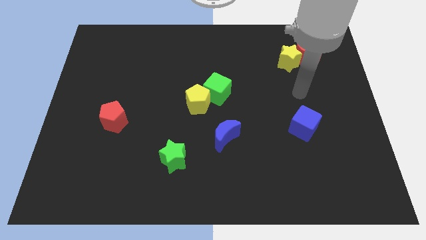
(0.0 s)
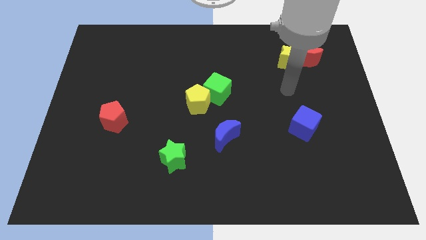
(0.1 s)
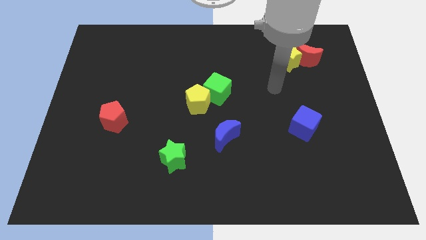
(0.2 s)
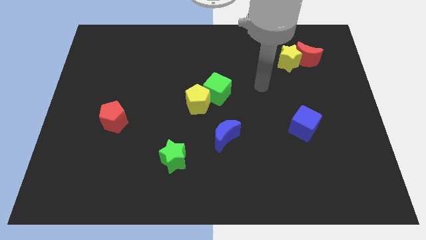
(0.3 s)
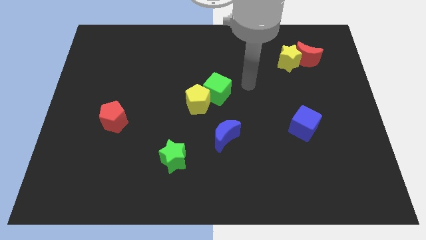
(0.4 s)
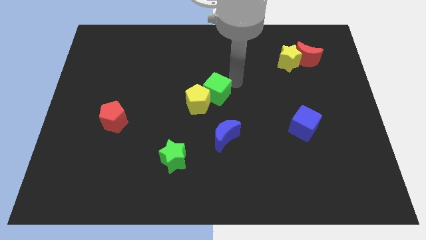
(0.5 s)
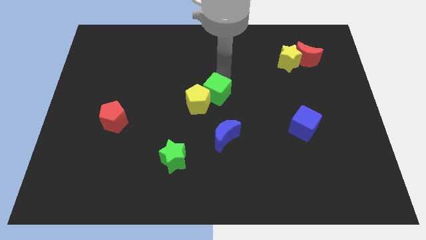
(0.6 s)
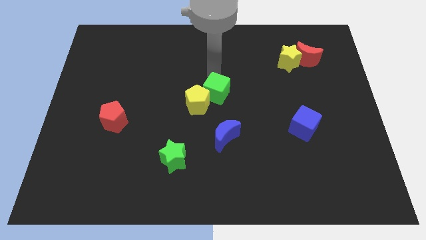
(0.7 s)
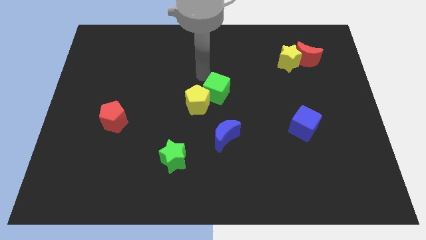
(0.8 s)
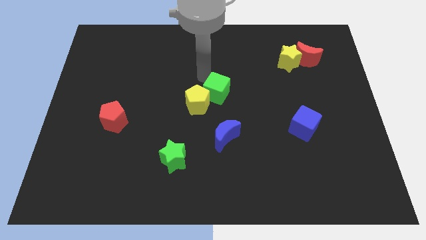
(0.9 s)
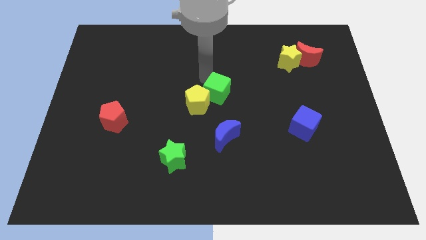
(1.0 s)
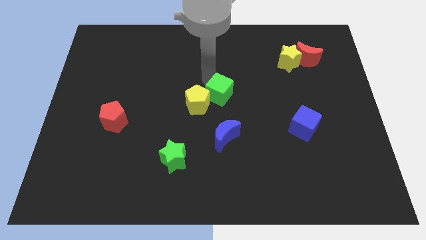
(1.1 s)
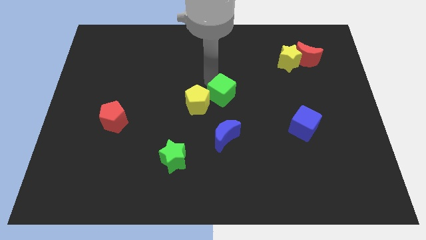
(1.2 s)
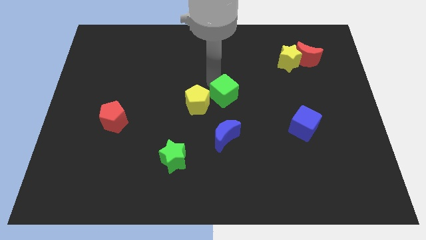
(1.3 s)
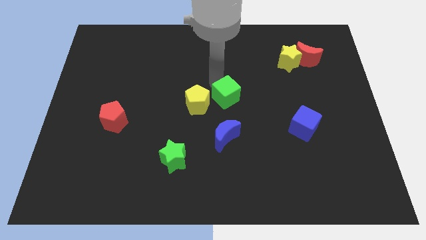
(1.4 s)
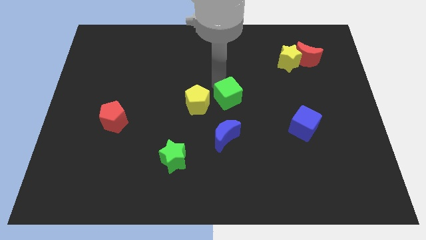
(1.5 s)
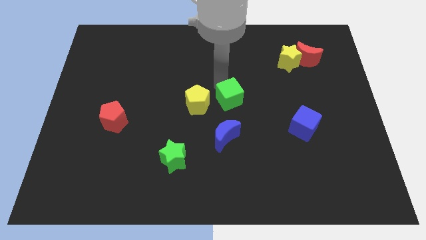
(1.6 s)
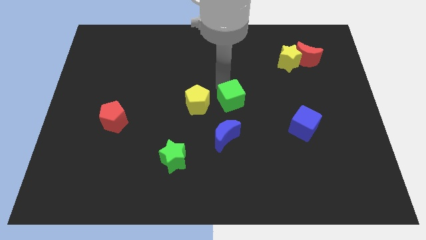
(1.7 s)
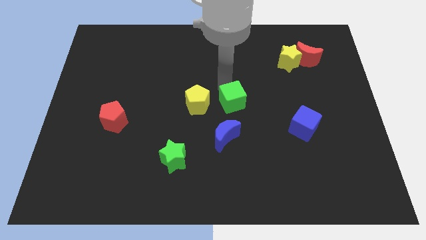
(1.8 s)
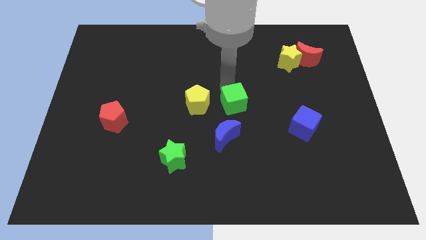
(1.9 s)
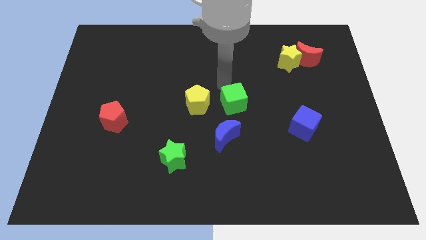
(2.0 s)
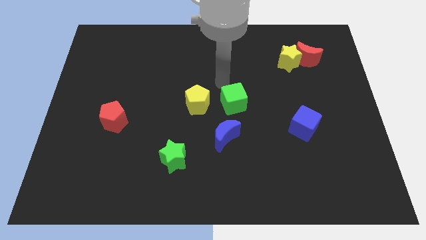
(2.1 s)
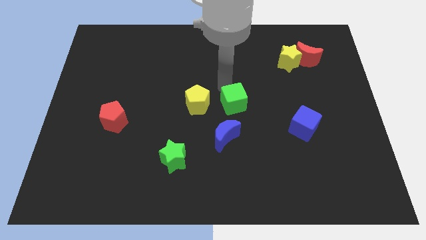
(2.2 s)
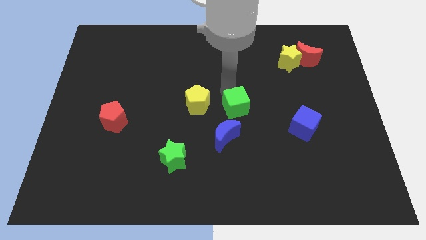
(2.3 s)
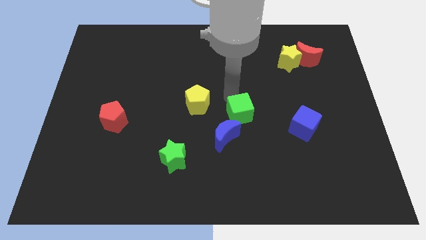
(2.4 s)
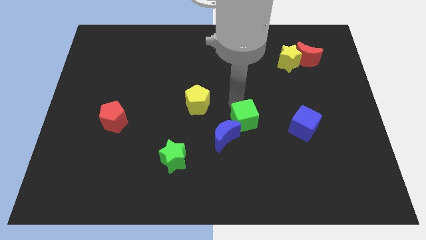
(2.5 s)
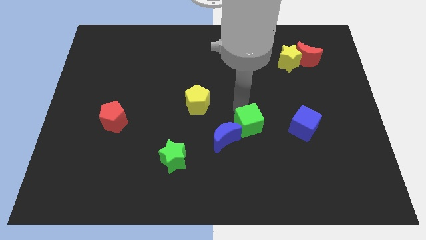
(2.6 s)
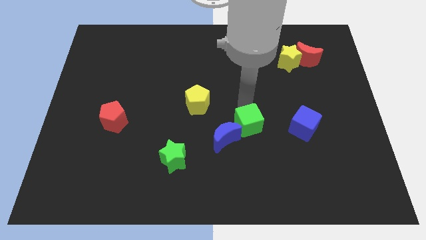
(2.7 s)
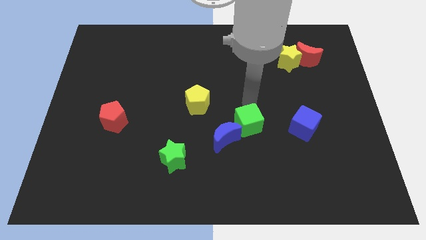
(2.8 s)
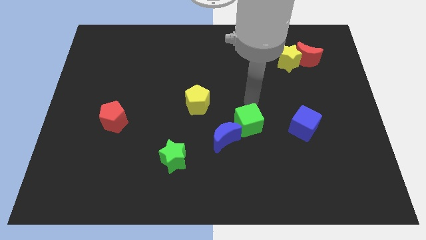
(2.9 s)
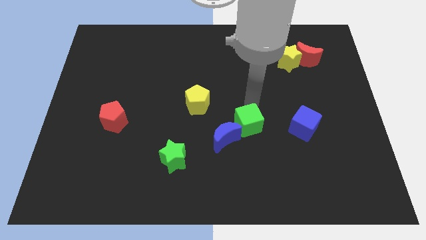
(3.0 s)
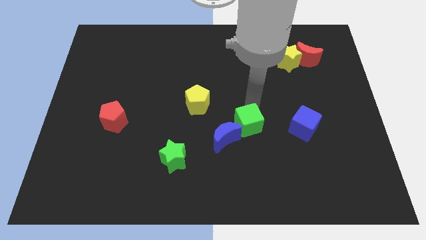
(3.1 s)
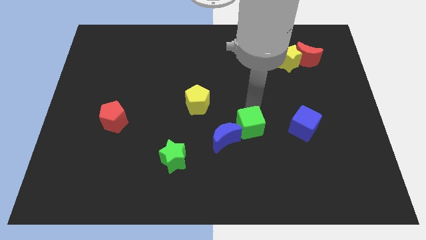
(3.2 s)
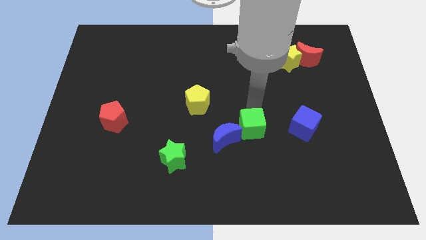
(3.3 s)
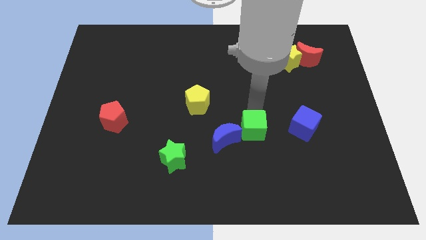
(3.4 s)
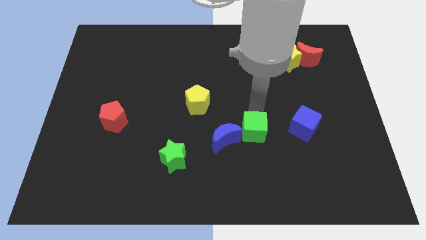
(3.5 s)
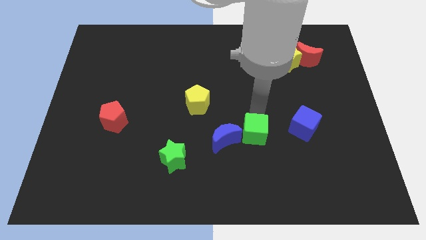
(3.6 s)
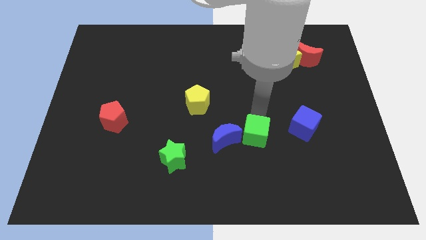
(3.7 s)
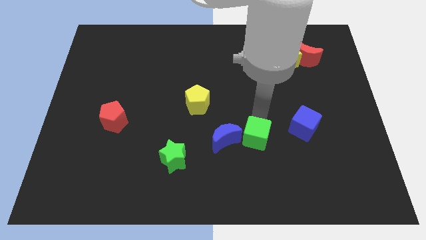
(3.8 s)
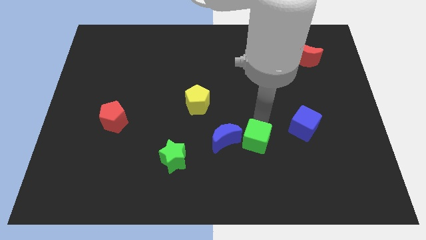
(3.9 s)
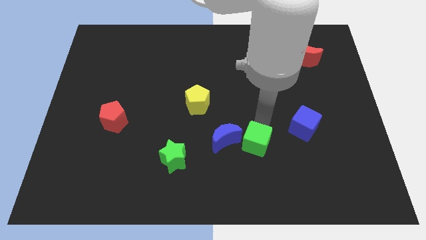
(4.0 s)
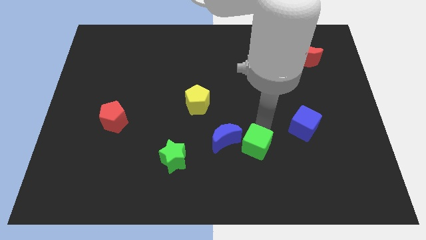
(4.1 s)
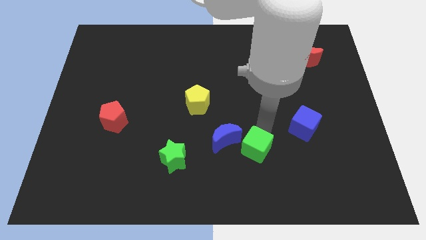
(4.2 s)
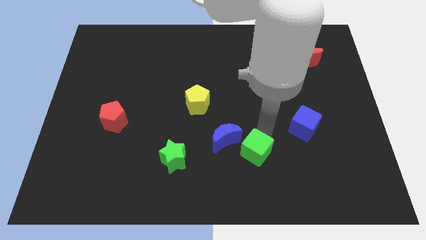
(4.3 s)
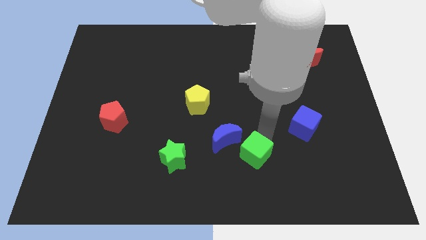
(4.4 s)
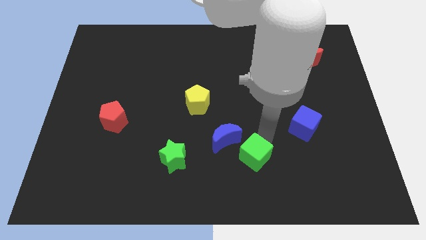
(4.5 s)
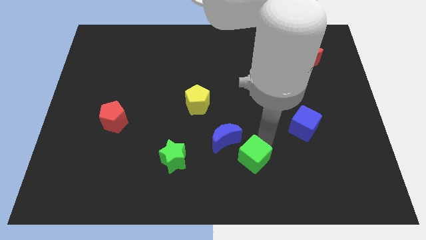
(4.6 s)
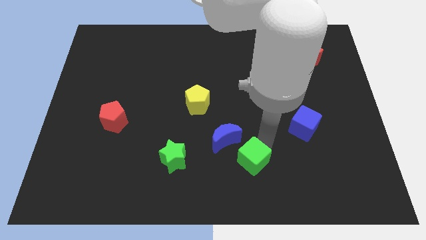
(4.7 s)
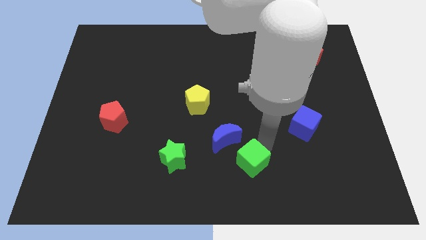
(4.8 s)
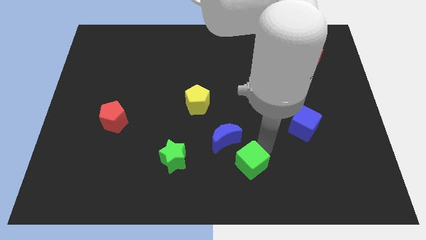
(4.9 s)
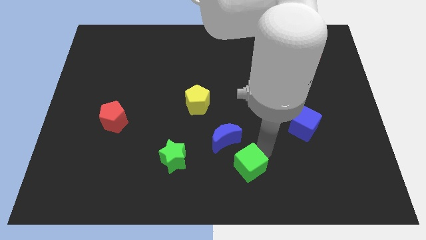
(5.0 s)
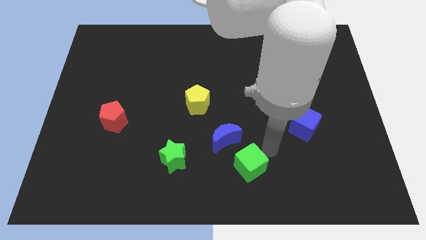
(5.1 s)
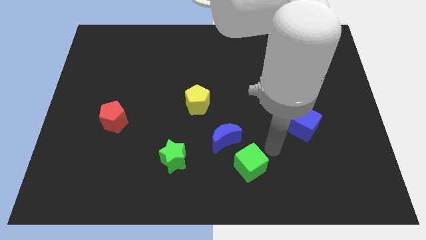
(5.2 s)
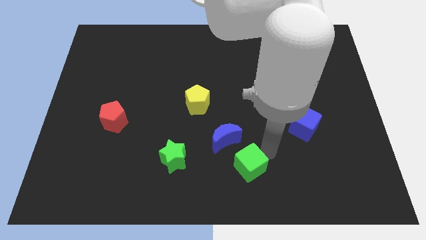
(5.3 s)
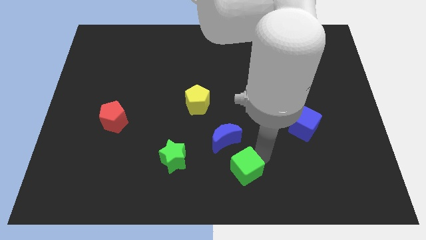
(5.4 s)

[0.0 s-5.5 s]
slide the green cube to the bottom side of the blue moon

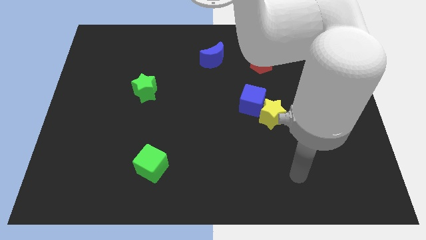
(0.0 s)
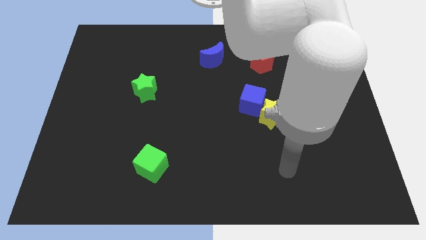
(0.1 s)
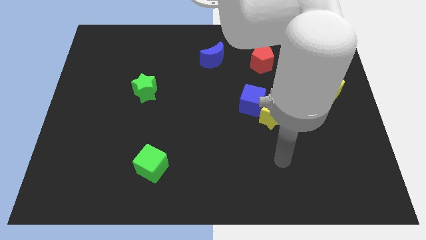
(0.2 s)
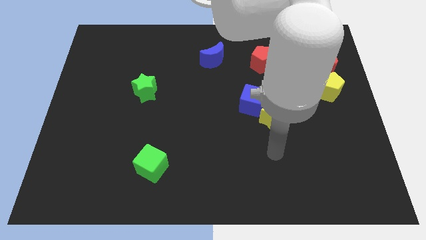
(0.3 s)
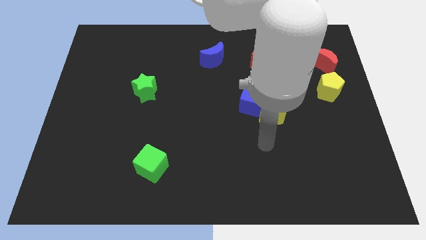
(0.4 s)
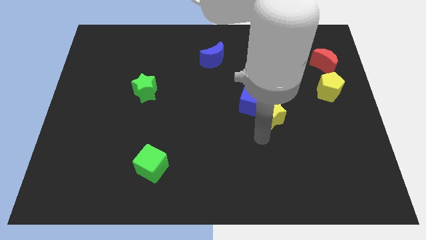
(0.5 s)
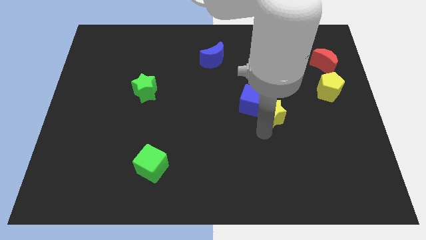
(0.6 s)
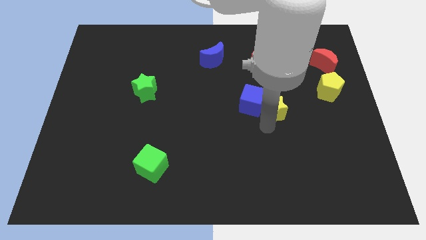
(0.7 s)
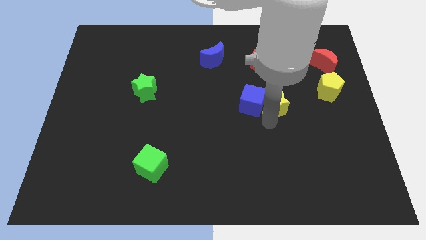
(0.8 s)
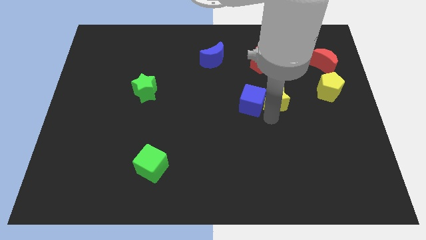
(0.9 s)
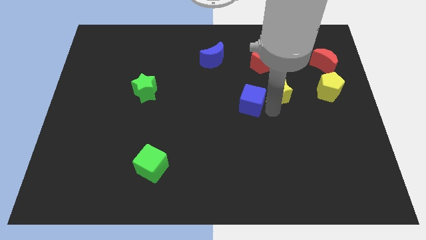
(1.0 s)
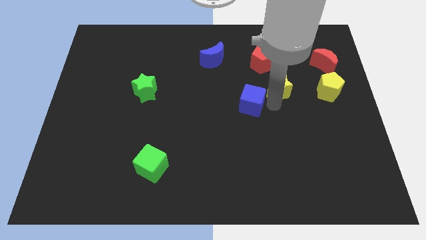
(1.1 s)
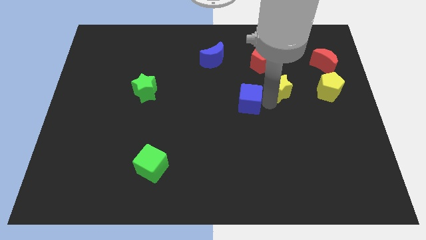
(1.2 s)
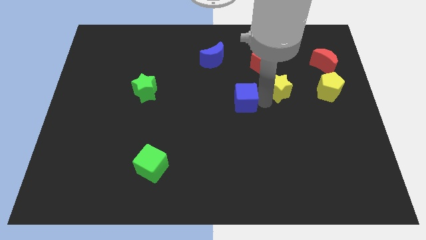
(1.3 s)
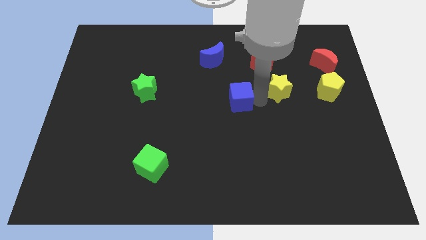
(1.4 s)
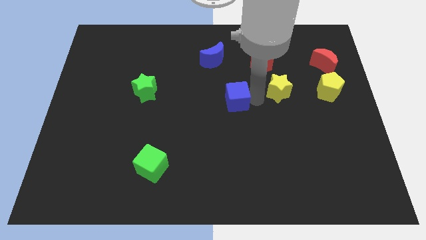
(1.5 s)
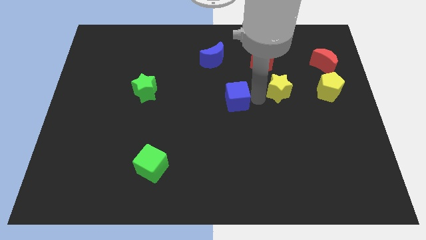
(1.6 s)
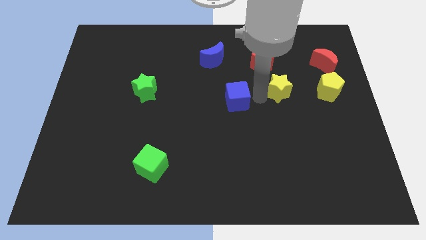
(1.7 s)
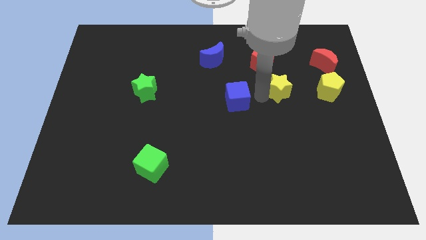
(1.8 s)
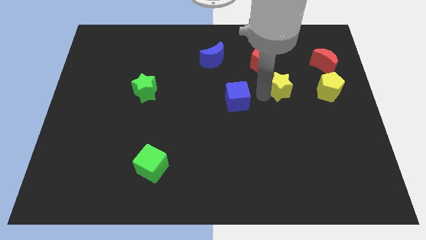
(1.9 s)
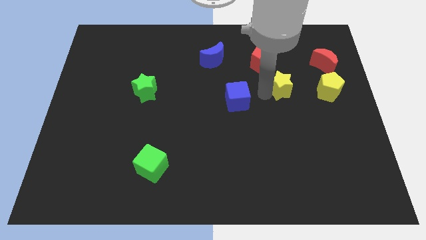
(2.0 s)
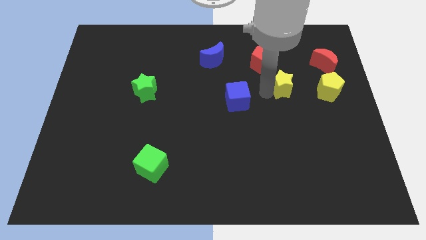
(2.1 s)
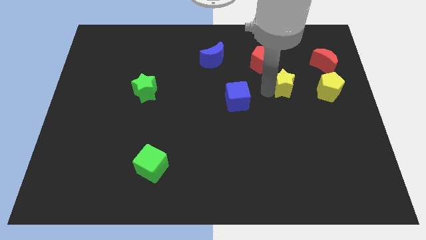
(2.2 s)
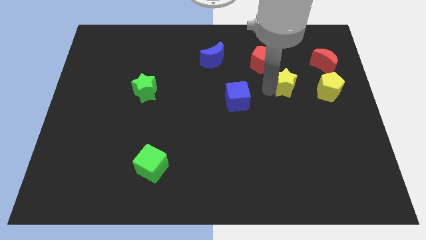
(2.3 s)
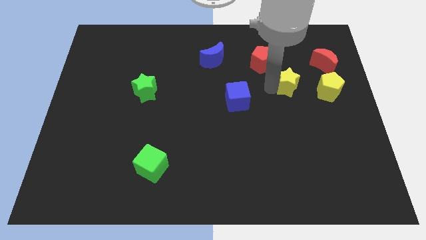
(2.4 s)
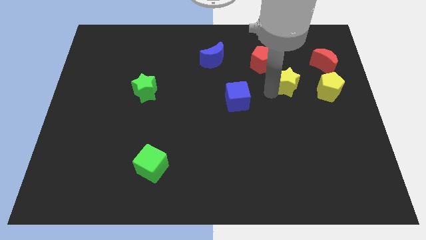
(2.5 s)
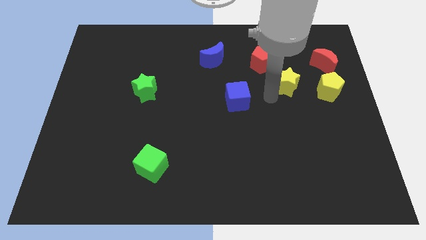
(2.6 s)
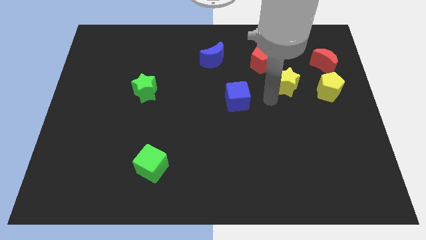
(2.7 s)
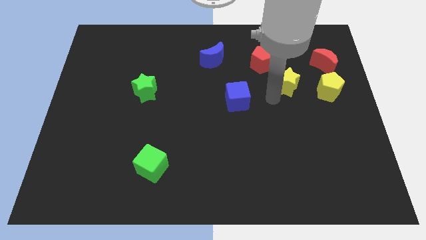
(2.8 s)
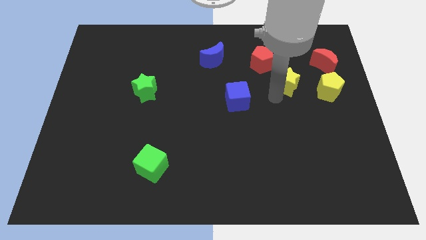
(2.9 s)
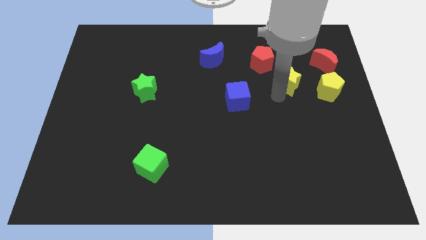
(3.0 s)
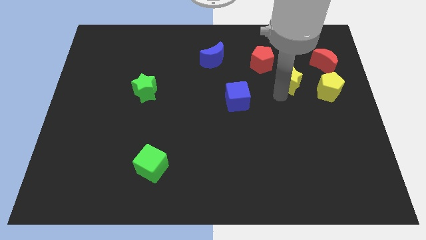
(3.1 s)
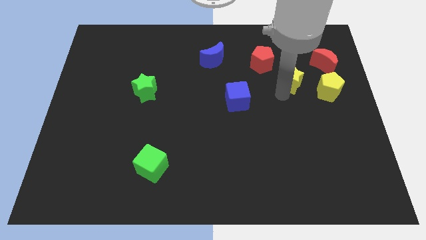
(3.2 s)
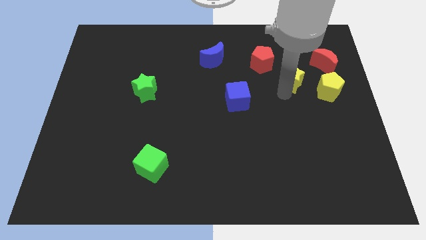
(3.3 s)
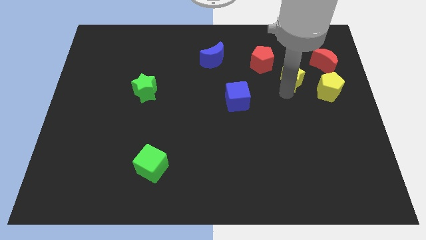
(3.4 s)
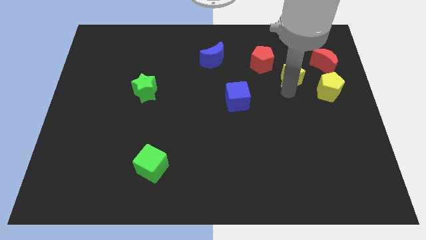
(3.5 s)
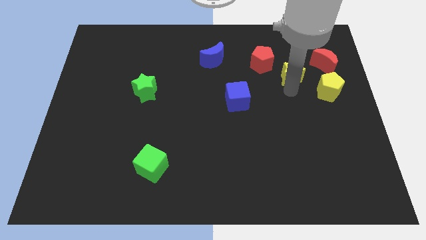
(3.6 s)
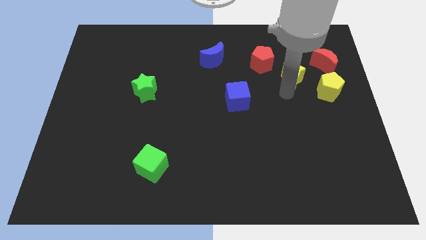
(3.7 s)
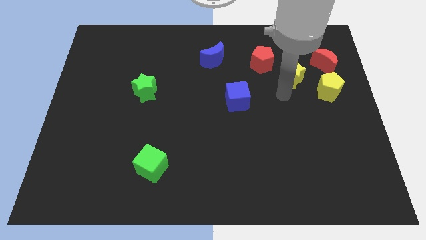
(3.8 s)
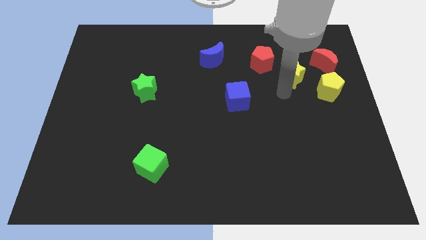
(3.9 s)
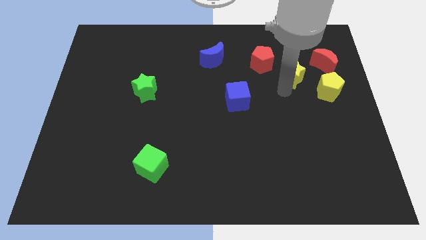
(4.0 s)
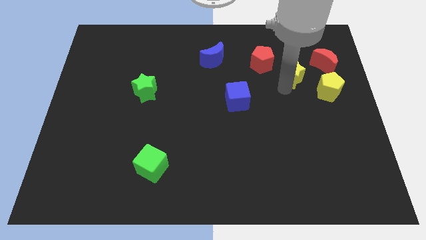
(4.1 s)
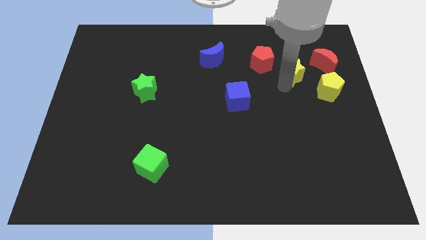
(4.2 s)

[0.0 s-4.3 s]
slide the yellow star to the right of the red pentagon
